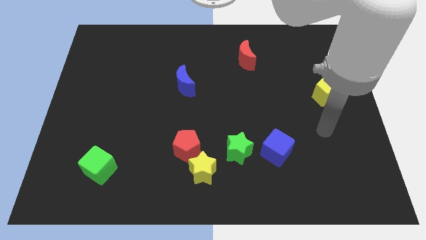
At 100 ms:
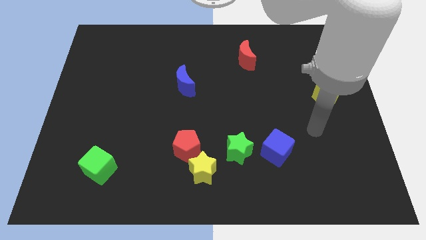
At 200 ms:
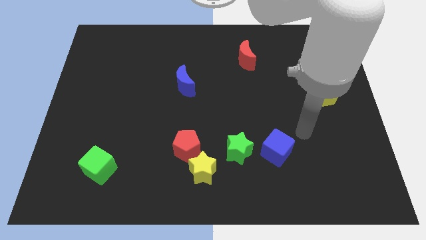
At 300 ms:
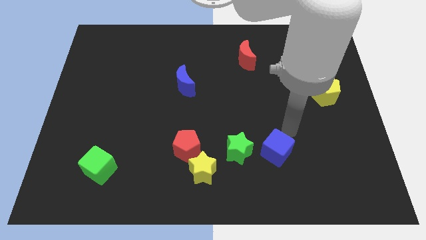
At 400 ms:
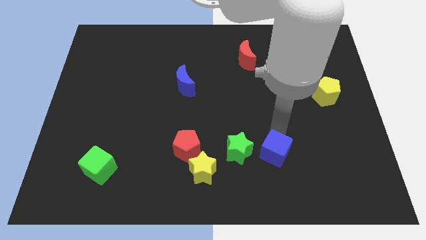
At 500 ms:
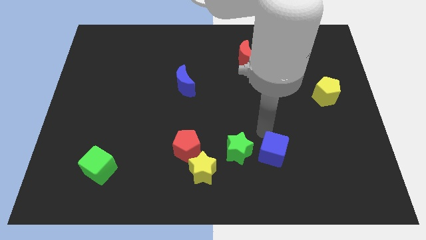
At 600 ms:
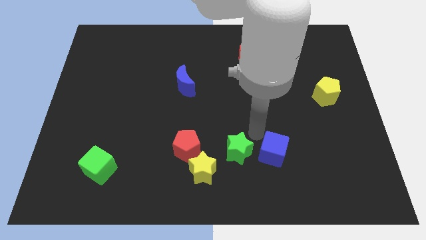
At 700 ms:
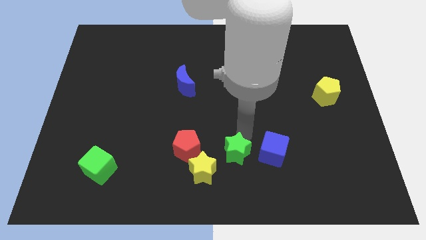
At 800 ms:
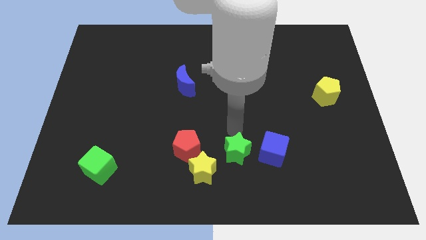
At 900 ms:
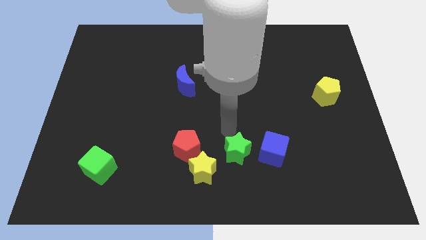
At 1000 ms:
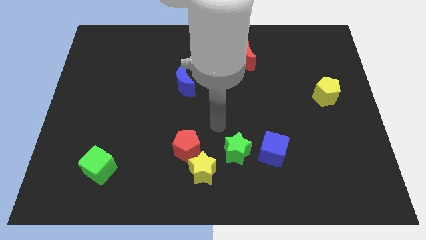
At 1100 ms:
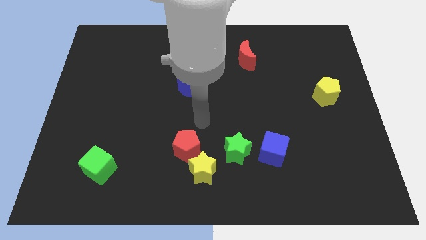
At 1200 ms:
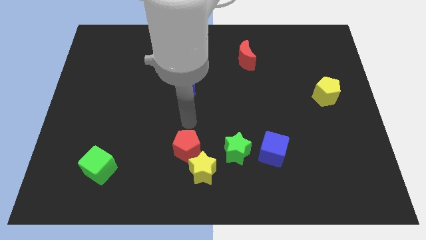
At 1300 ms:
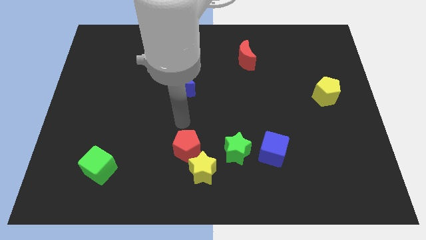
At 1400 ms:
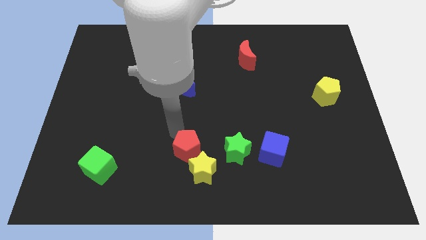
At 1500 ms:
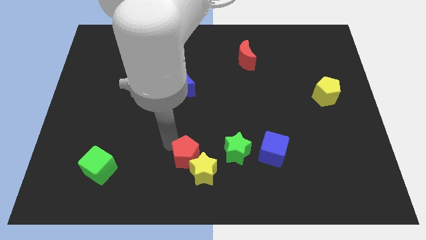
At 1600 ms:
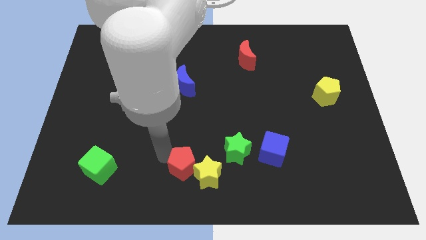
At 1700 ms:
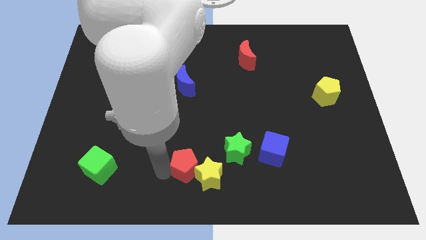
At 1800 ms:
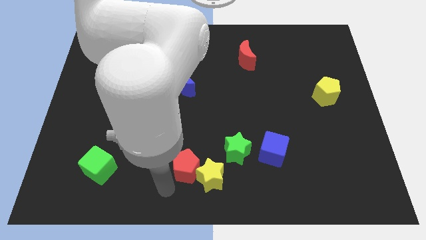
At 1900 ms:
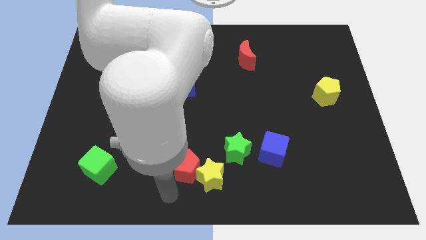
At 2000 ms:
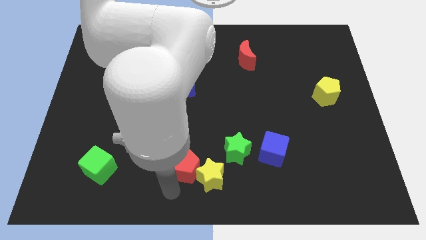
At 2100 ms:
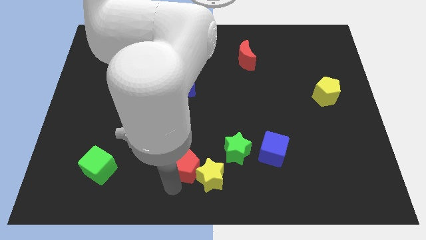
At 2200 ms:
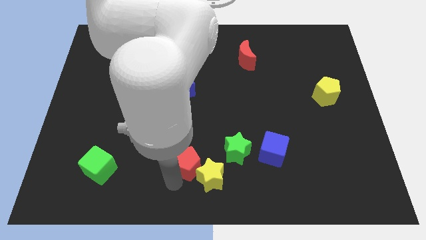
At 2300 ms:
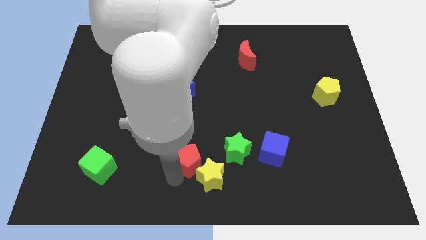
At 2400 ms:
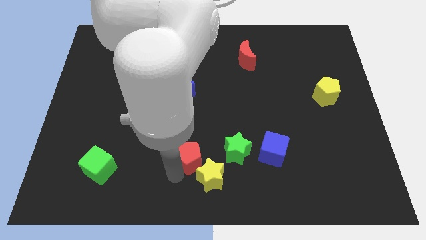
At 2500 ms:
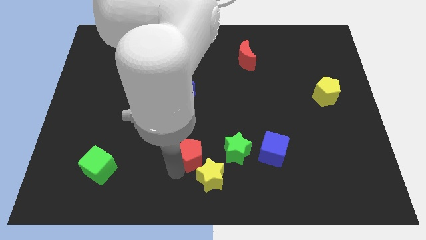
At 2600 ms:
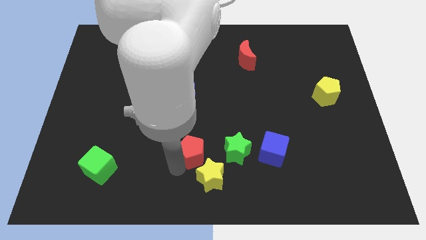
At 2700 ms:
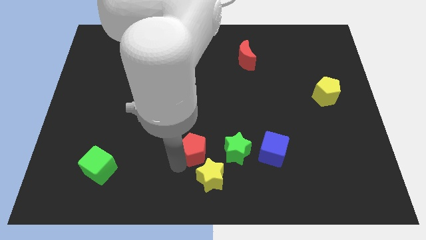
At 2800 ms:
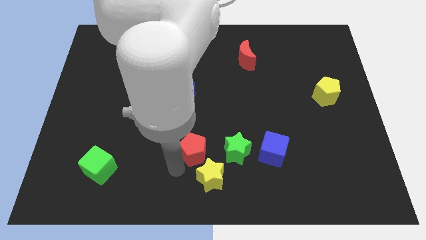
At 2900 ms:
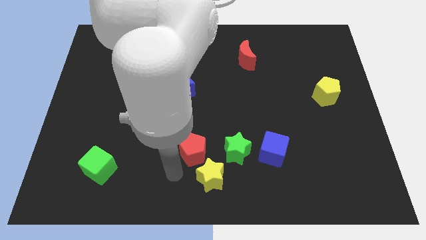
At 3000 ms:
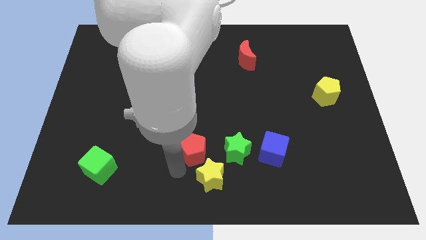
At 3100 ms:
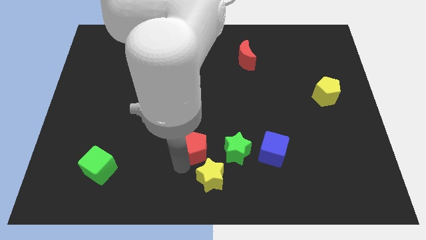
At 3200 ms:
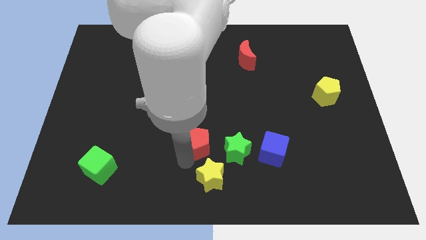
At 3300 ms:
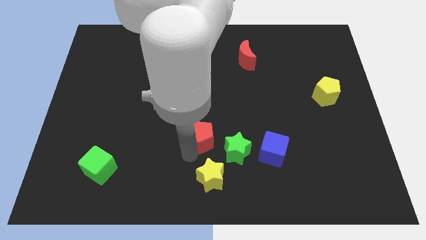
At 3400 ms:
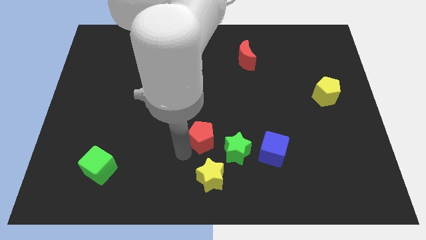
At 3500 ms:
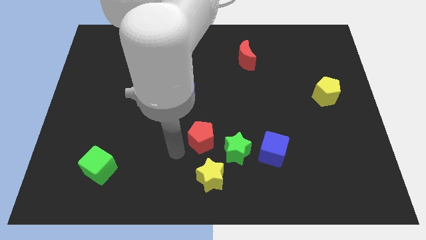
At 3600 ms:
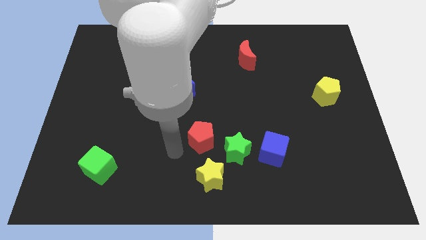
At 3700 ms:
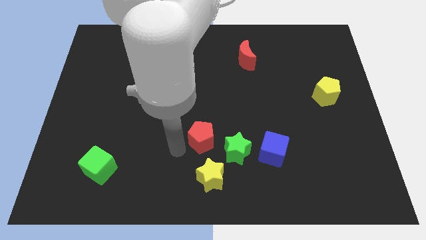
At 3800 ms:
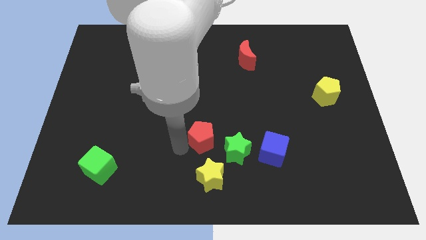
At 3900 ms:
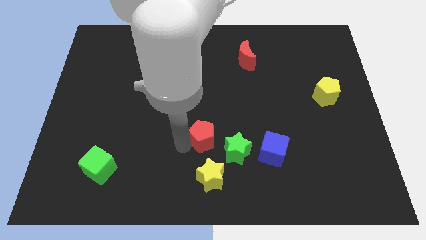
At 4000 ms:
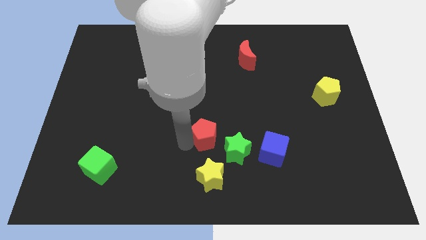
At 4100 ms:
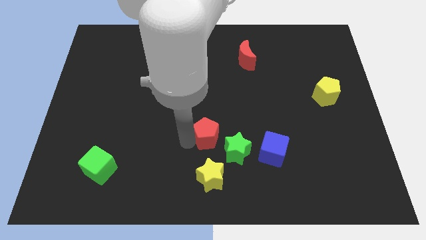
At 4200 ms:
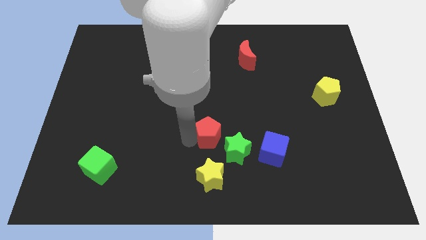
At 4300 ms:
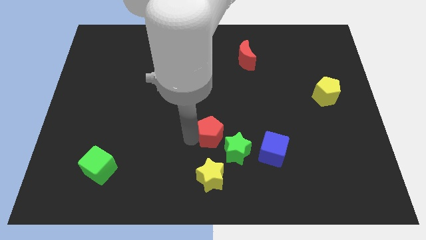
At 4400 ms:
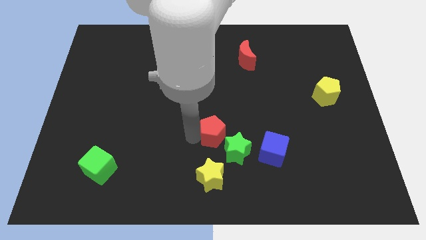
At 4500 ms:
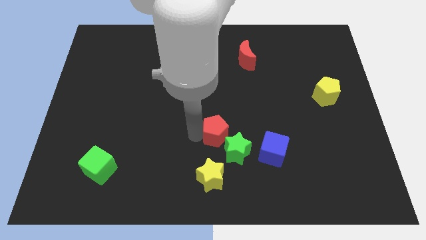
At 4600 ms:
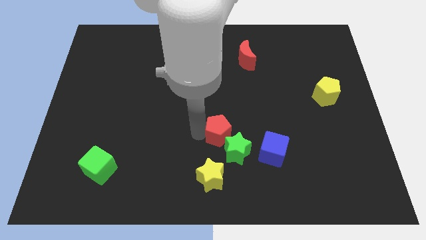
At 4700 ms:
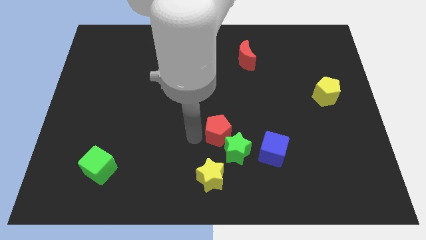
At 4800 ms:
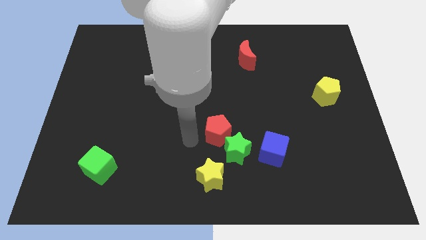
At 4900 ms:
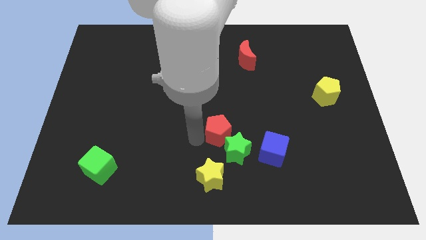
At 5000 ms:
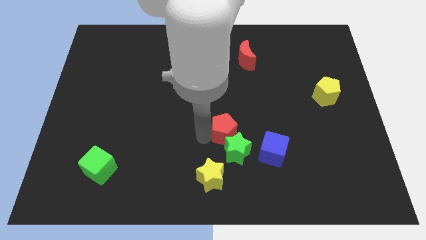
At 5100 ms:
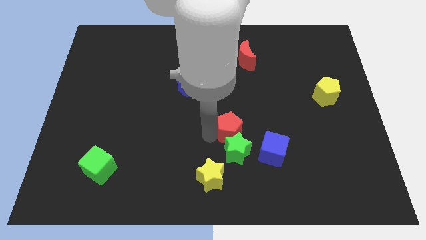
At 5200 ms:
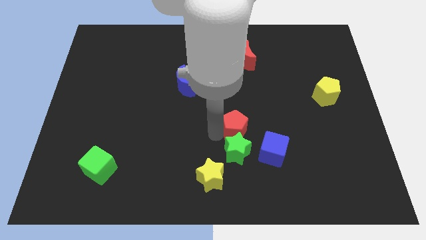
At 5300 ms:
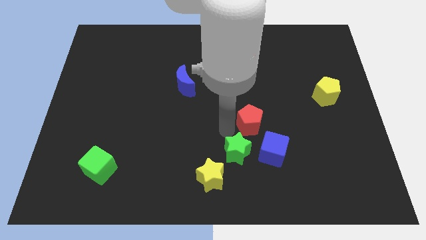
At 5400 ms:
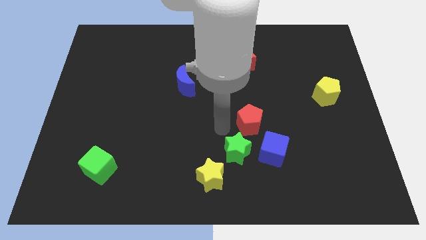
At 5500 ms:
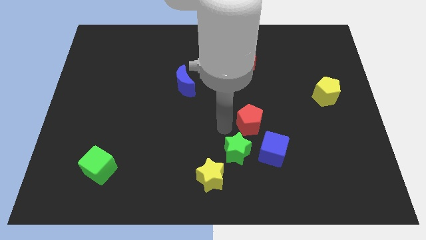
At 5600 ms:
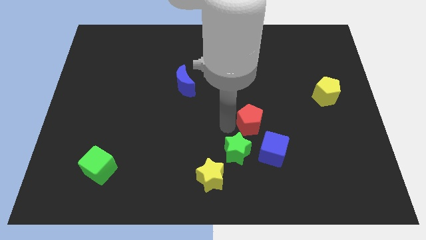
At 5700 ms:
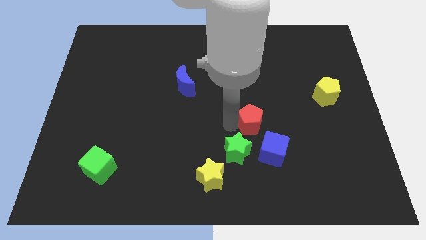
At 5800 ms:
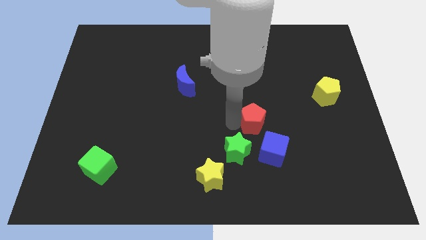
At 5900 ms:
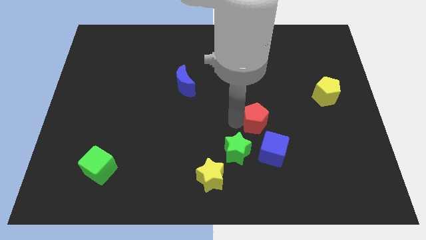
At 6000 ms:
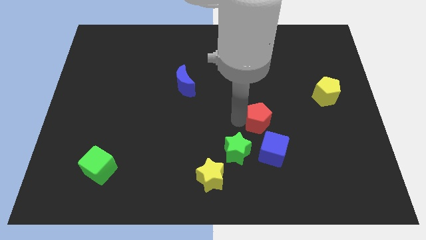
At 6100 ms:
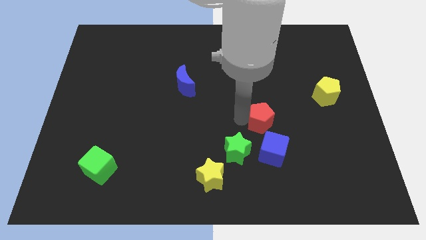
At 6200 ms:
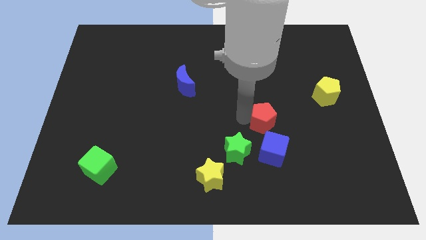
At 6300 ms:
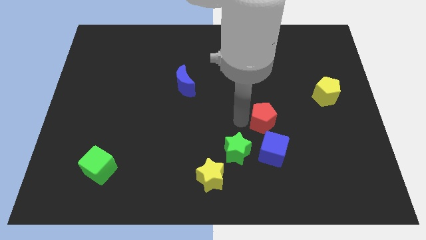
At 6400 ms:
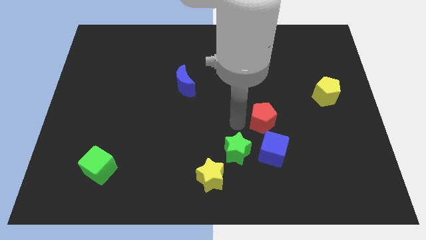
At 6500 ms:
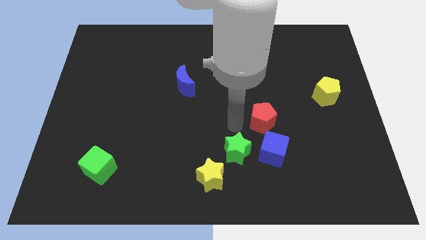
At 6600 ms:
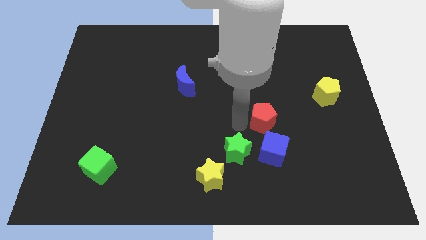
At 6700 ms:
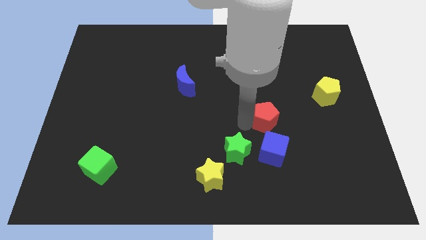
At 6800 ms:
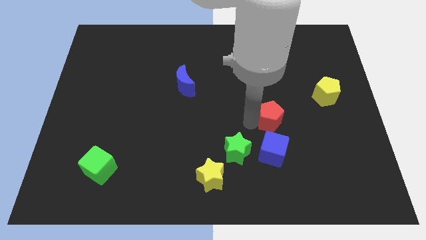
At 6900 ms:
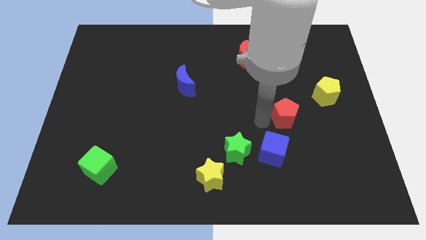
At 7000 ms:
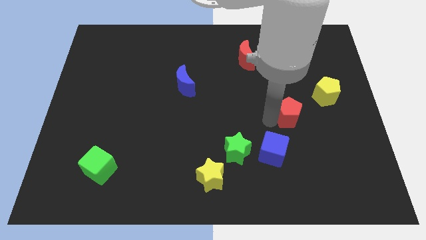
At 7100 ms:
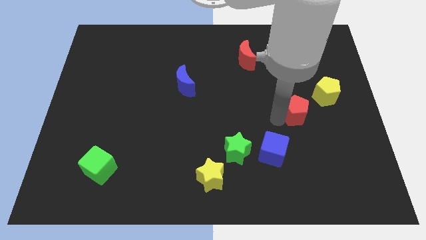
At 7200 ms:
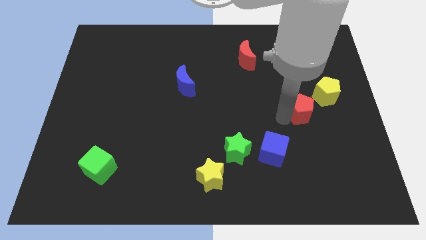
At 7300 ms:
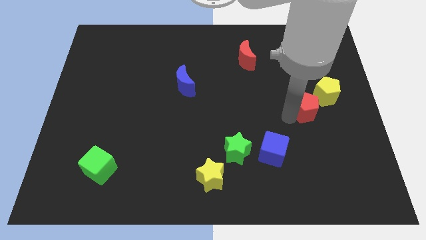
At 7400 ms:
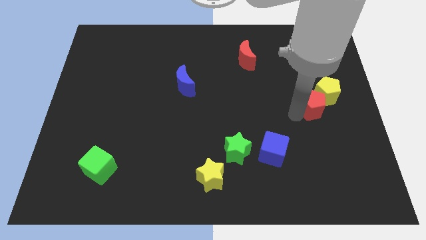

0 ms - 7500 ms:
put the red pentagon next to the yellow pentagon
